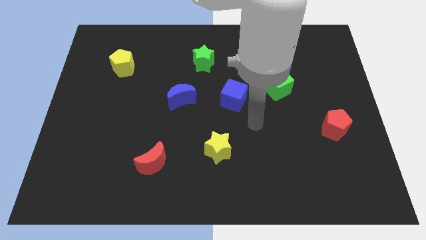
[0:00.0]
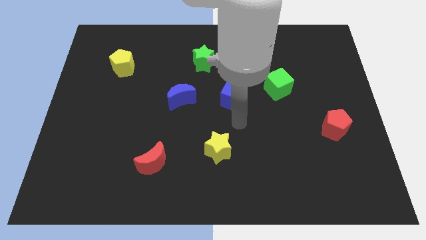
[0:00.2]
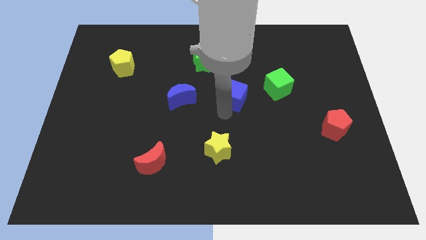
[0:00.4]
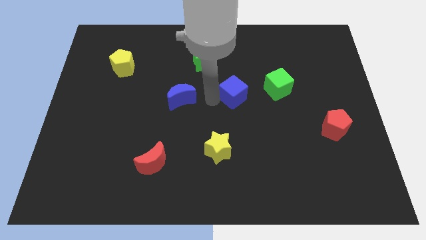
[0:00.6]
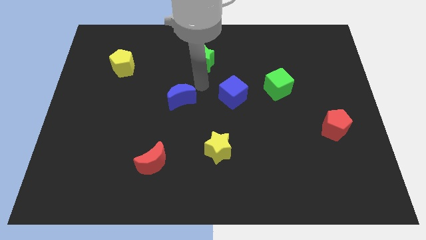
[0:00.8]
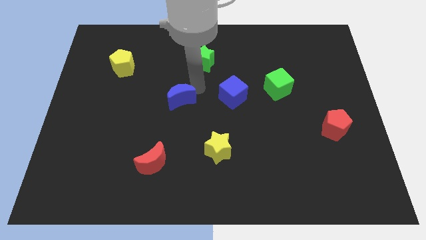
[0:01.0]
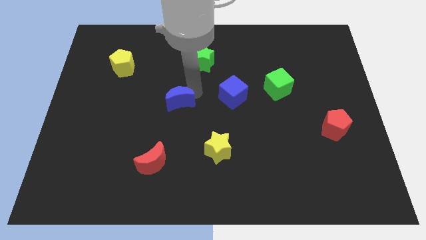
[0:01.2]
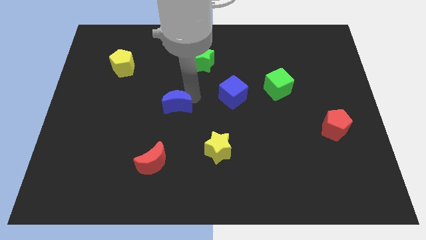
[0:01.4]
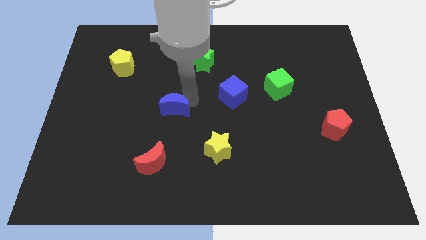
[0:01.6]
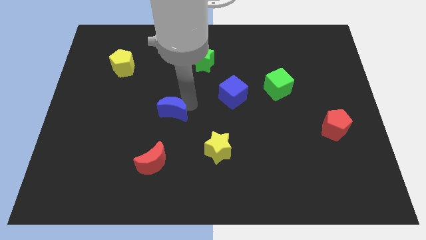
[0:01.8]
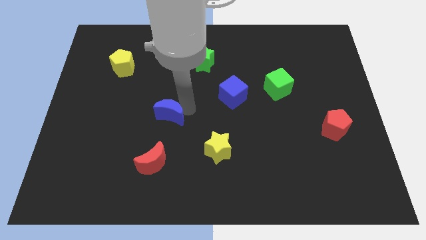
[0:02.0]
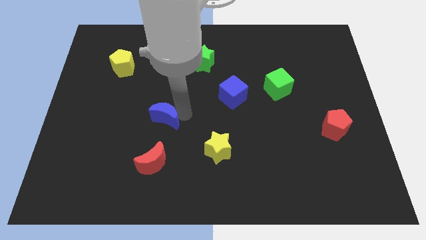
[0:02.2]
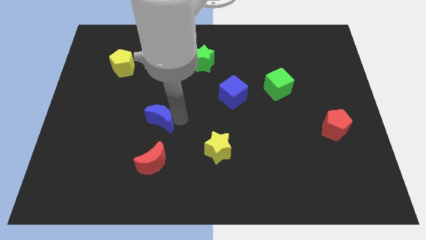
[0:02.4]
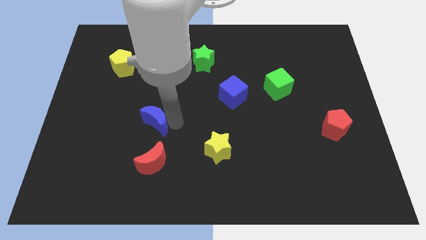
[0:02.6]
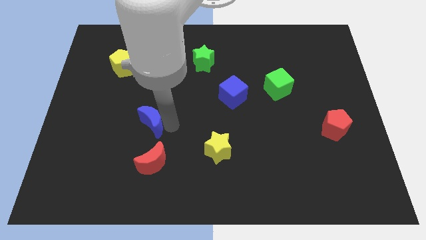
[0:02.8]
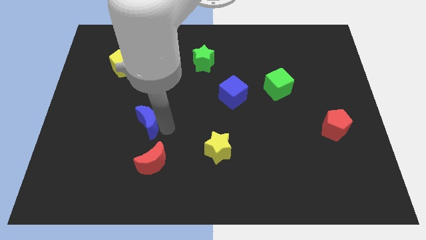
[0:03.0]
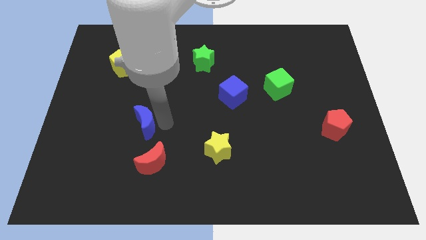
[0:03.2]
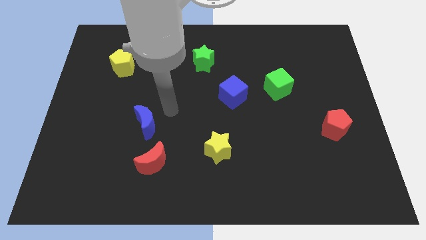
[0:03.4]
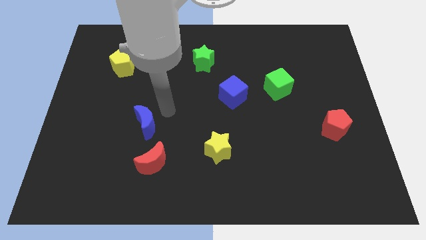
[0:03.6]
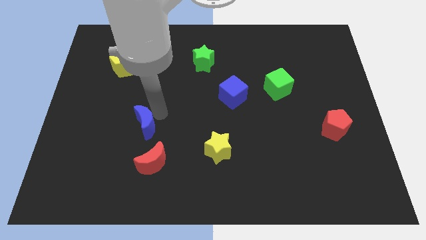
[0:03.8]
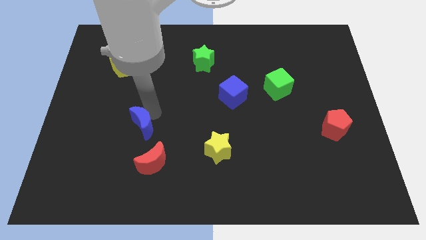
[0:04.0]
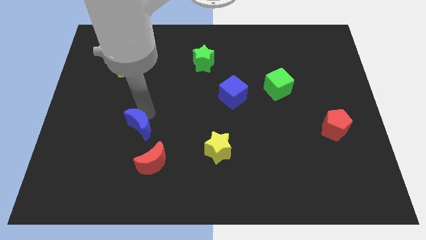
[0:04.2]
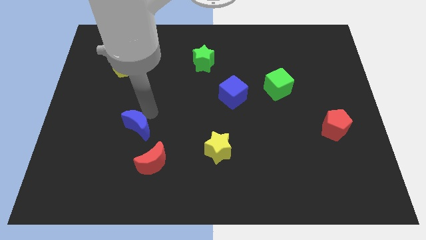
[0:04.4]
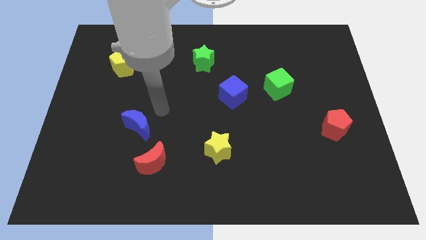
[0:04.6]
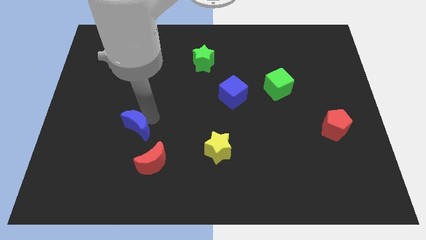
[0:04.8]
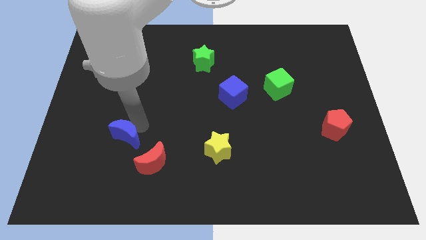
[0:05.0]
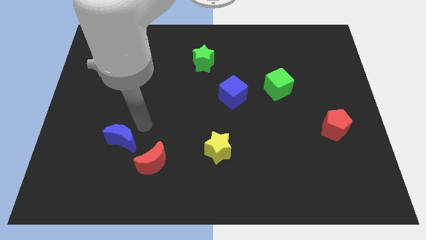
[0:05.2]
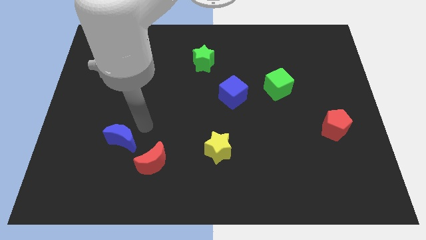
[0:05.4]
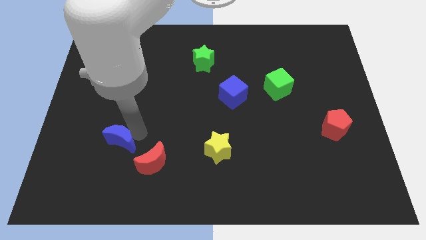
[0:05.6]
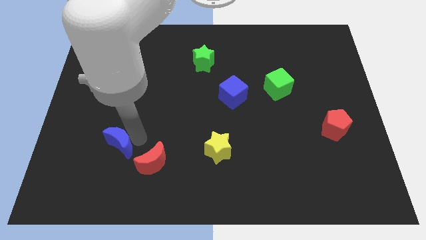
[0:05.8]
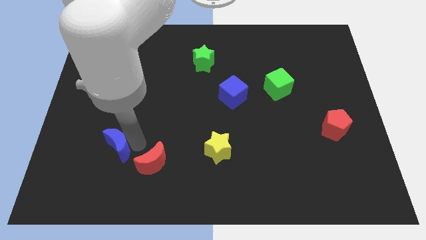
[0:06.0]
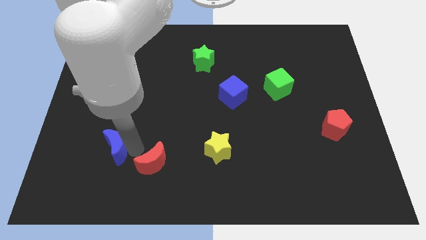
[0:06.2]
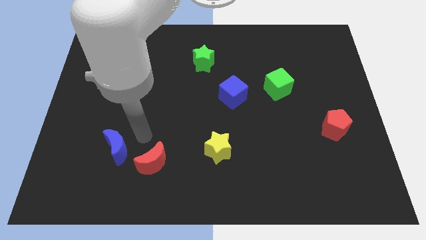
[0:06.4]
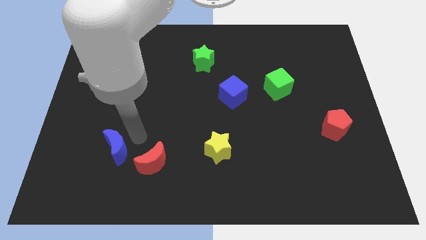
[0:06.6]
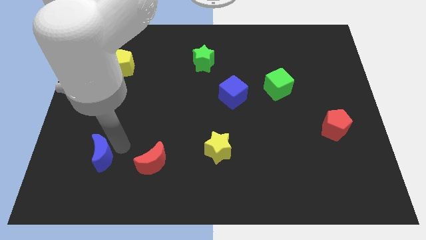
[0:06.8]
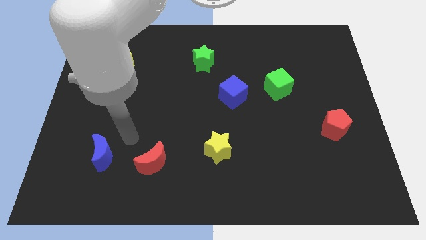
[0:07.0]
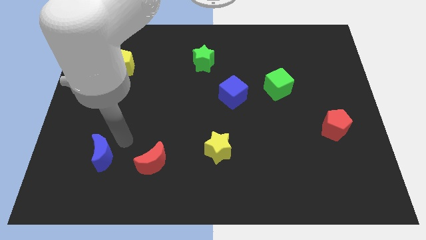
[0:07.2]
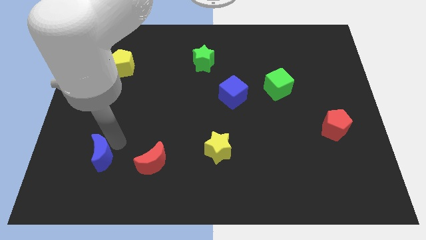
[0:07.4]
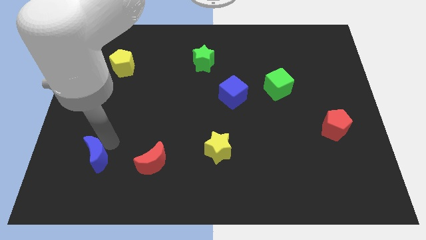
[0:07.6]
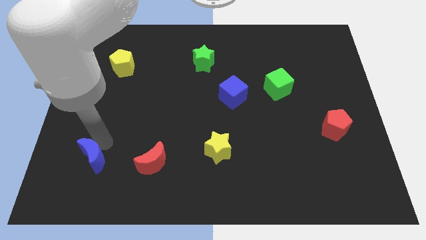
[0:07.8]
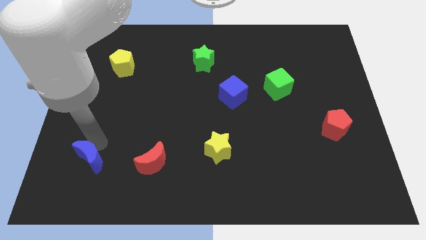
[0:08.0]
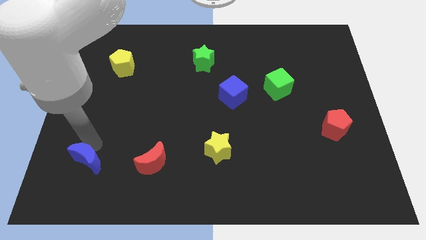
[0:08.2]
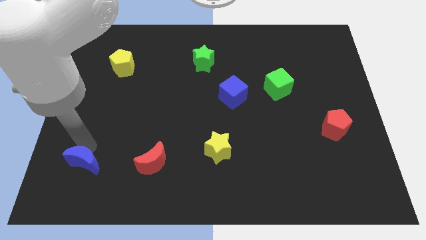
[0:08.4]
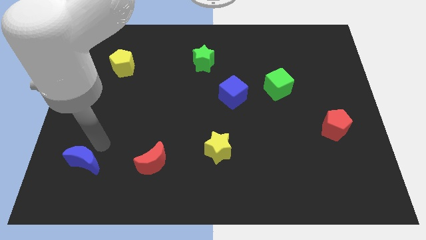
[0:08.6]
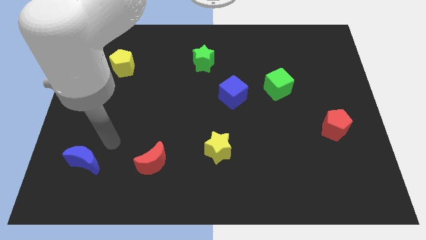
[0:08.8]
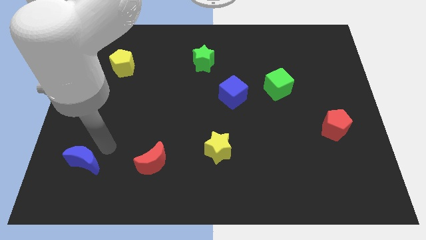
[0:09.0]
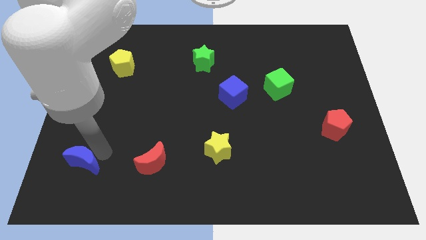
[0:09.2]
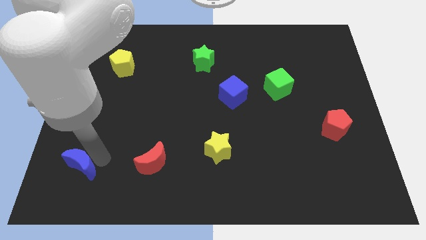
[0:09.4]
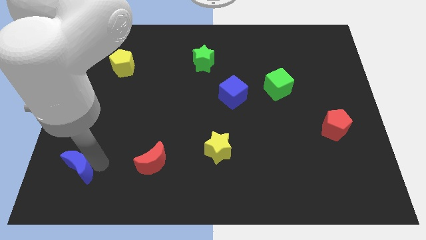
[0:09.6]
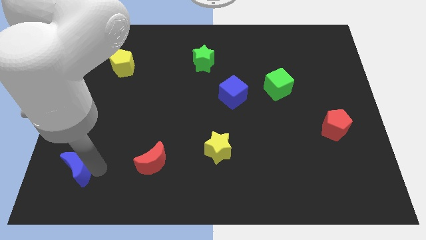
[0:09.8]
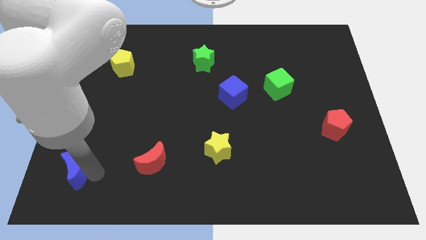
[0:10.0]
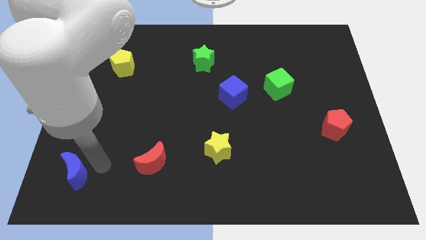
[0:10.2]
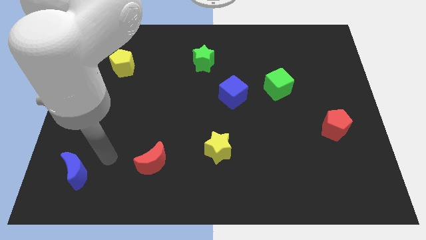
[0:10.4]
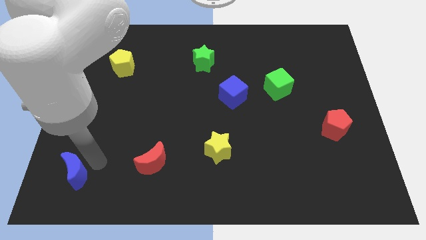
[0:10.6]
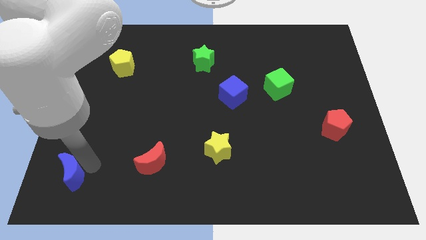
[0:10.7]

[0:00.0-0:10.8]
push the blue moon to the lower left corner

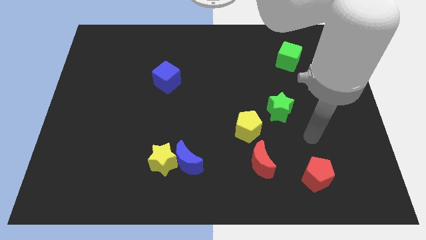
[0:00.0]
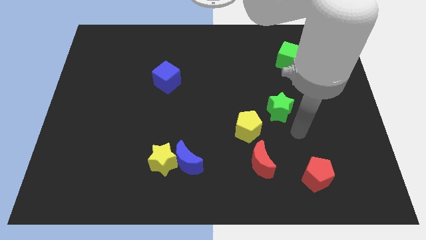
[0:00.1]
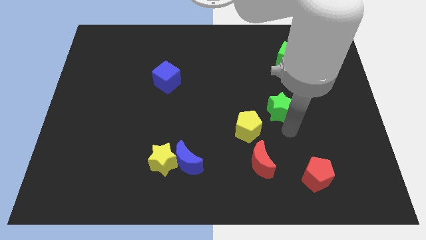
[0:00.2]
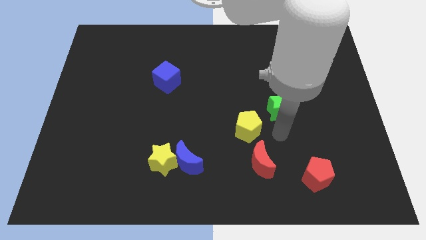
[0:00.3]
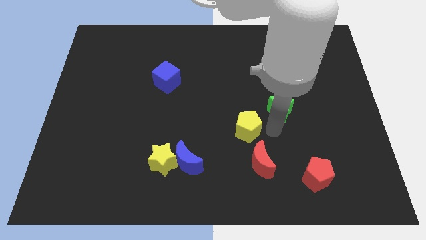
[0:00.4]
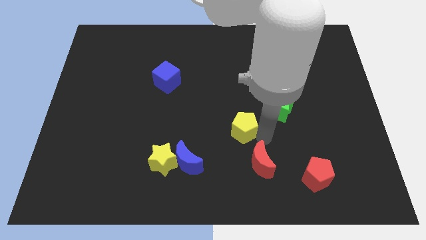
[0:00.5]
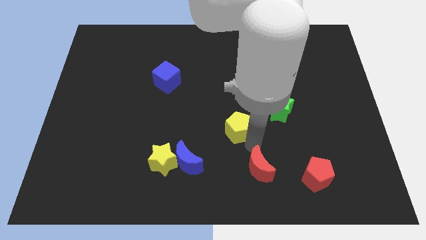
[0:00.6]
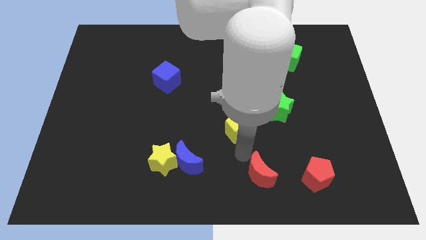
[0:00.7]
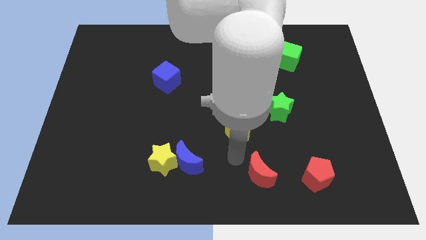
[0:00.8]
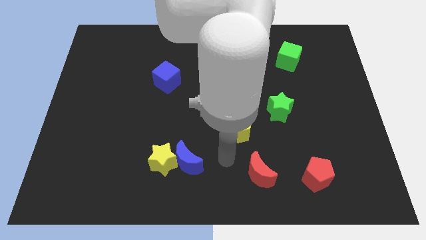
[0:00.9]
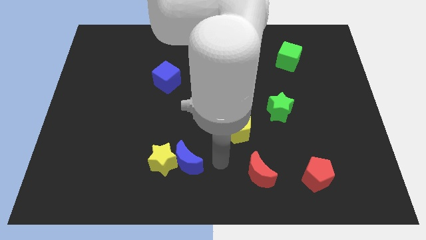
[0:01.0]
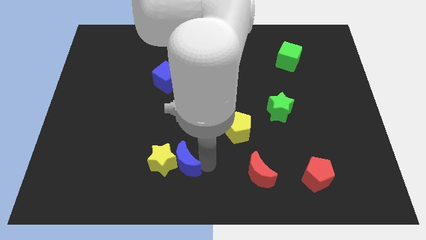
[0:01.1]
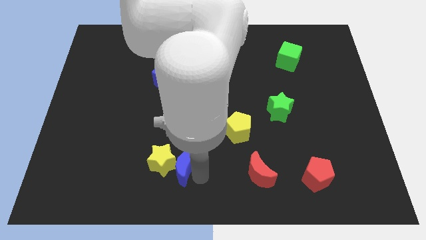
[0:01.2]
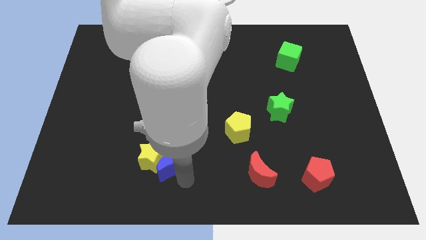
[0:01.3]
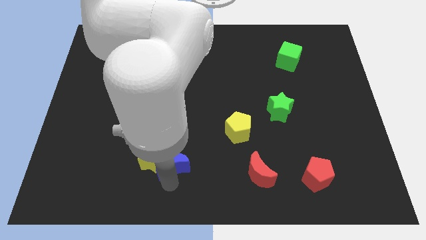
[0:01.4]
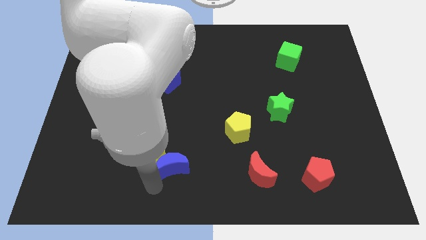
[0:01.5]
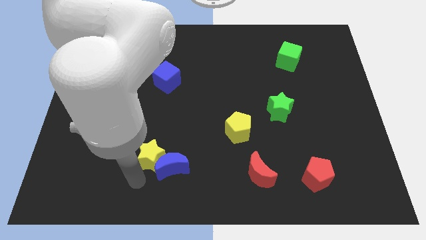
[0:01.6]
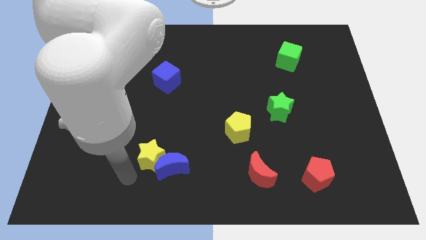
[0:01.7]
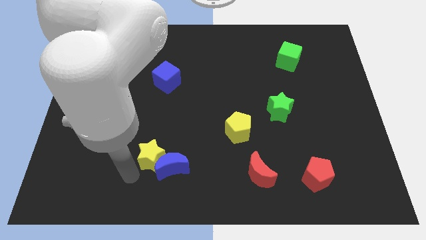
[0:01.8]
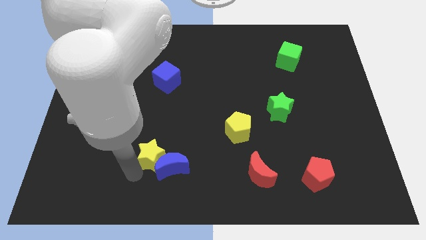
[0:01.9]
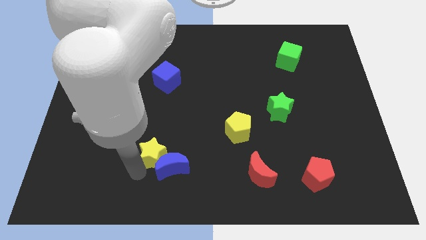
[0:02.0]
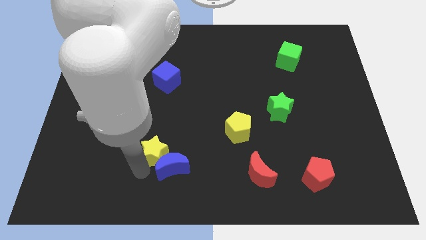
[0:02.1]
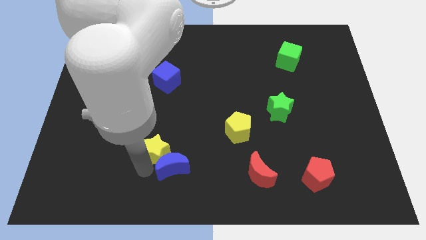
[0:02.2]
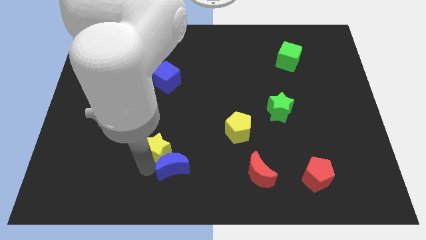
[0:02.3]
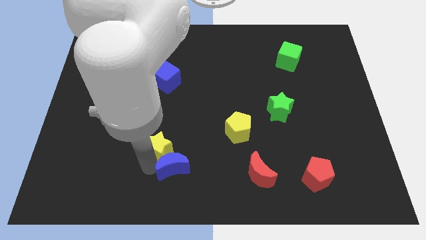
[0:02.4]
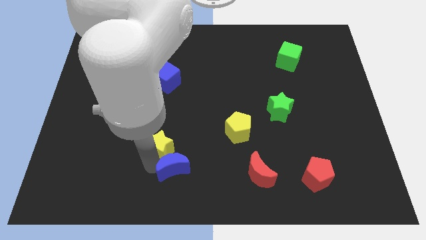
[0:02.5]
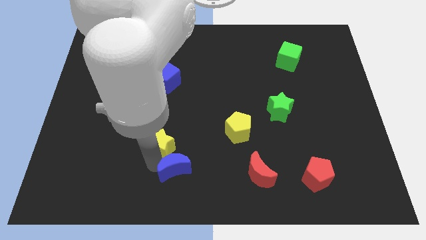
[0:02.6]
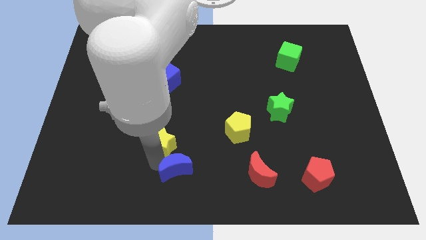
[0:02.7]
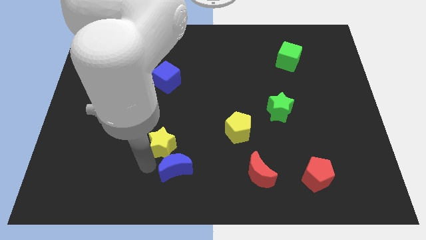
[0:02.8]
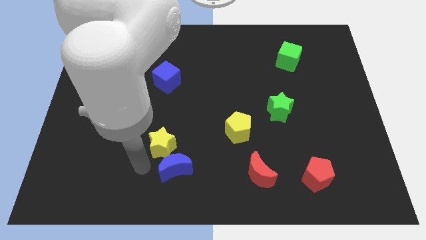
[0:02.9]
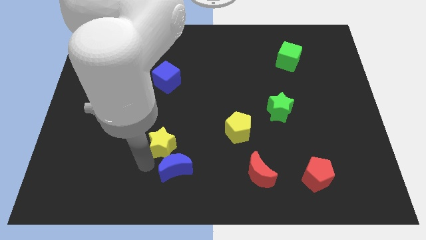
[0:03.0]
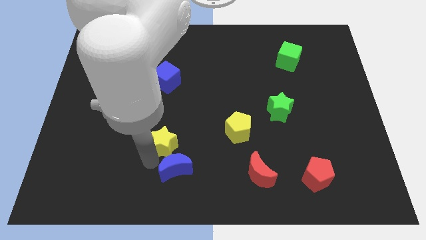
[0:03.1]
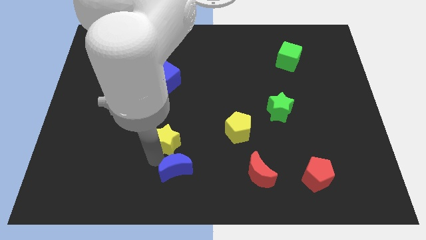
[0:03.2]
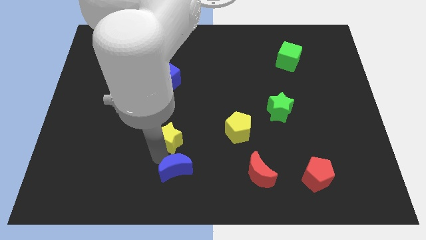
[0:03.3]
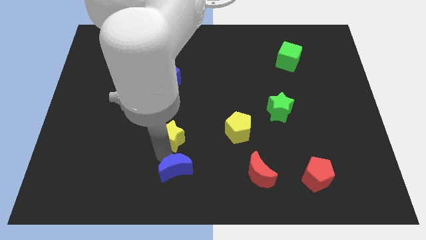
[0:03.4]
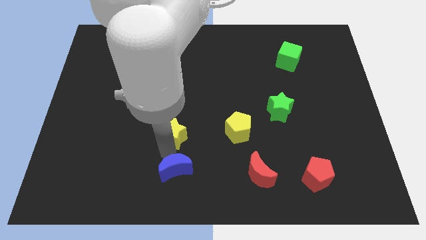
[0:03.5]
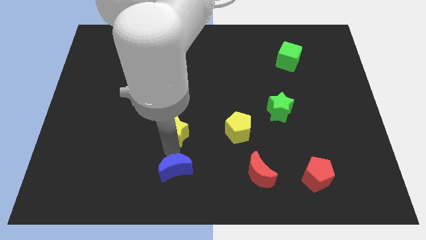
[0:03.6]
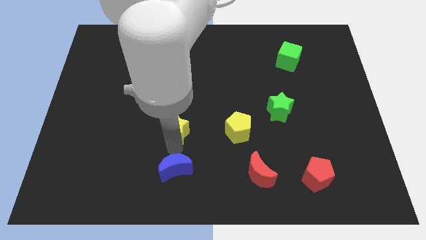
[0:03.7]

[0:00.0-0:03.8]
push the yellow star to the middle
